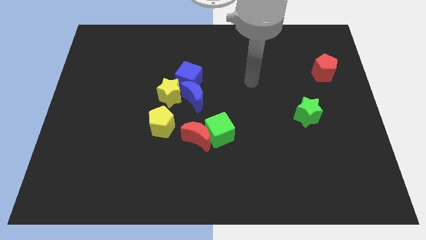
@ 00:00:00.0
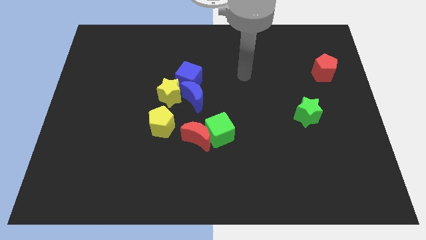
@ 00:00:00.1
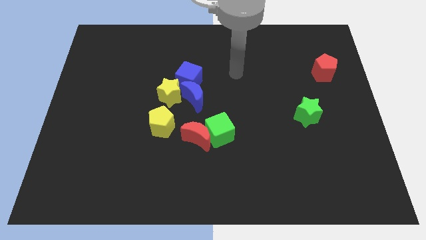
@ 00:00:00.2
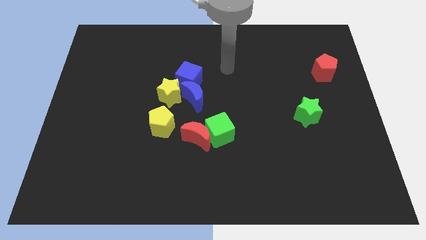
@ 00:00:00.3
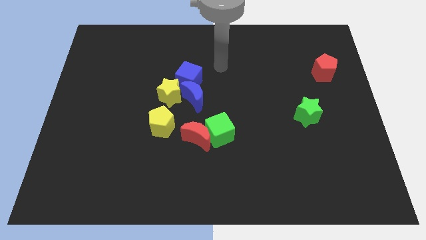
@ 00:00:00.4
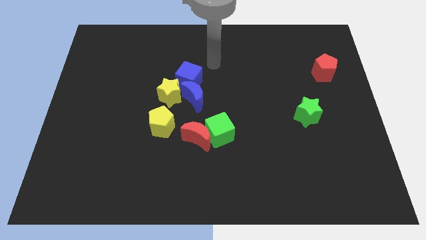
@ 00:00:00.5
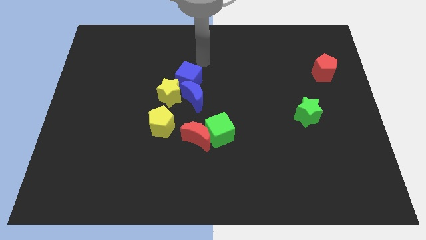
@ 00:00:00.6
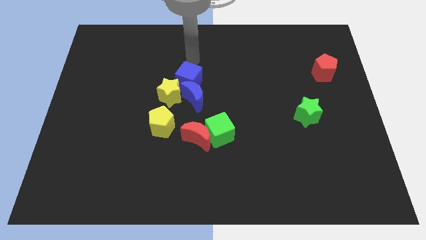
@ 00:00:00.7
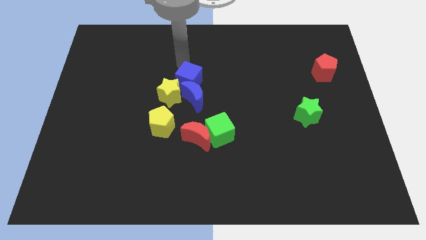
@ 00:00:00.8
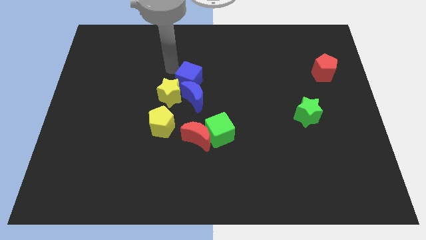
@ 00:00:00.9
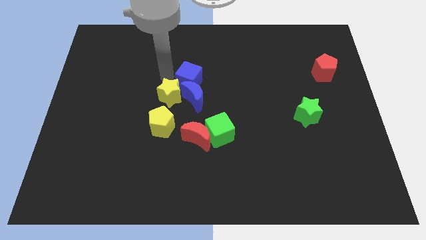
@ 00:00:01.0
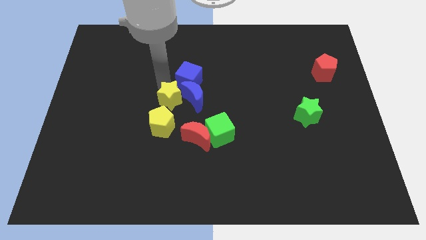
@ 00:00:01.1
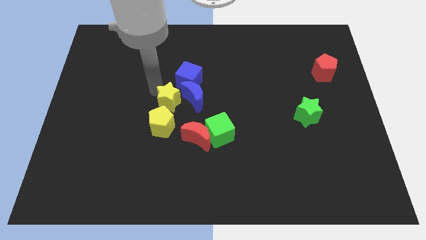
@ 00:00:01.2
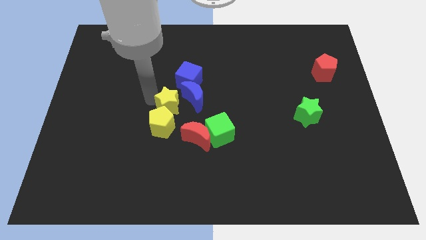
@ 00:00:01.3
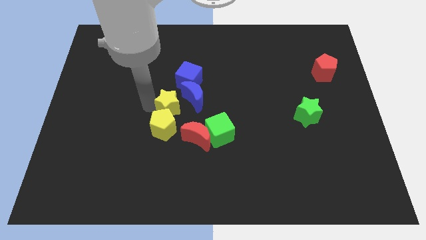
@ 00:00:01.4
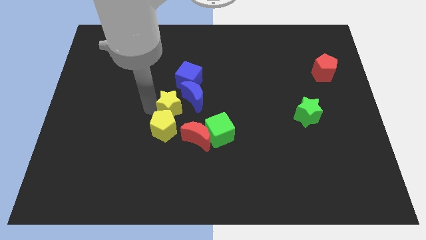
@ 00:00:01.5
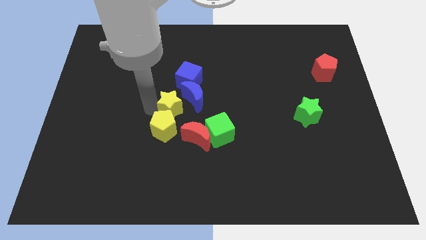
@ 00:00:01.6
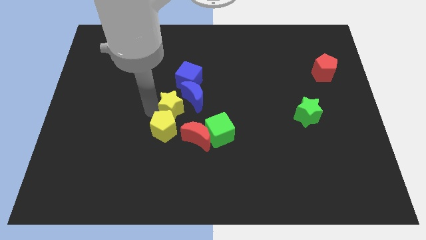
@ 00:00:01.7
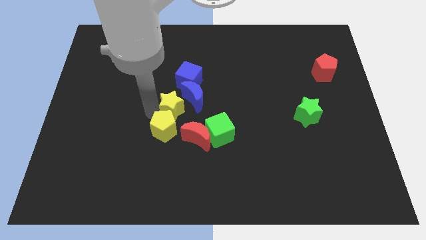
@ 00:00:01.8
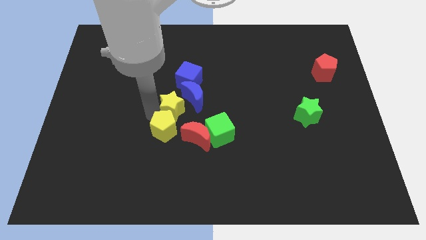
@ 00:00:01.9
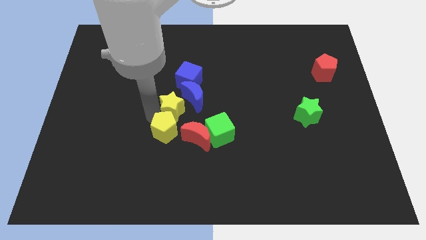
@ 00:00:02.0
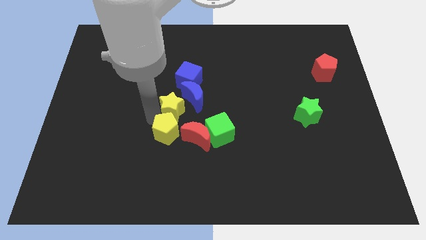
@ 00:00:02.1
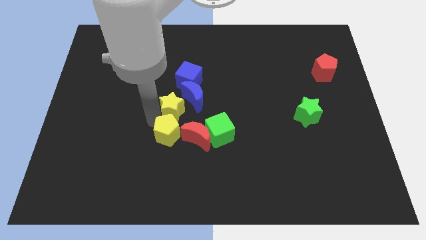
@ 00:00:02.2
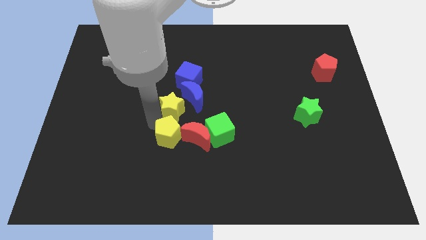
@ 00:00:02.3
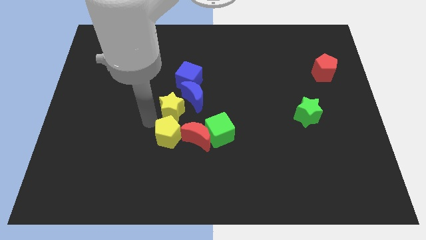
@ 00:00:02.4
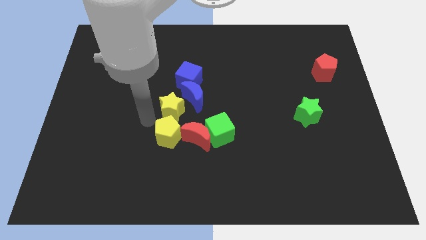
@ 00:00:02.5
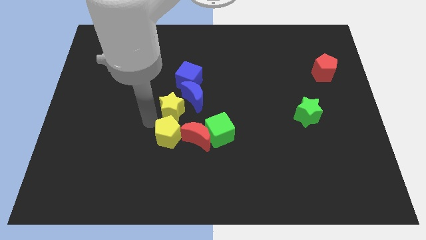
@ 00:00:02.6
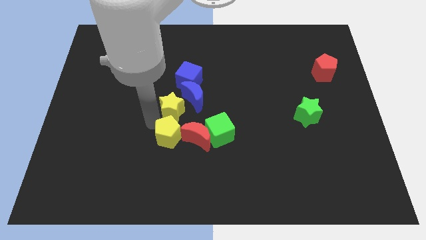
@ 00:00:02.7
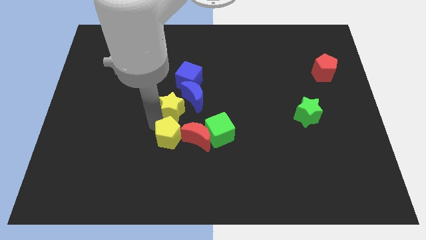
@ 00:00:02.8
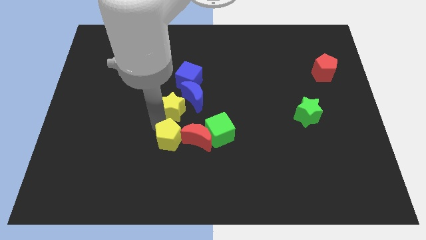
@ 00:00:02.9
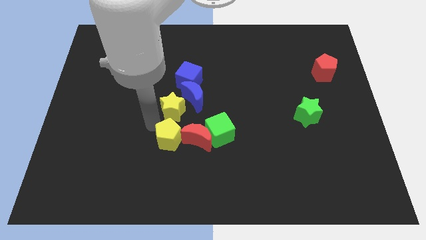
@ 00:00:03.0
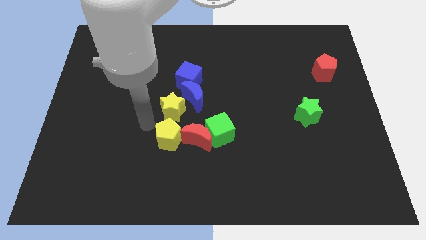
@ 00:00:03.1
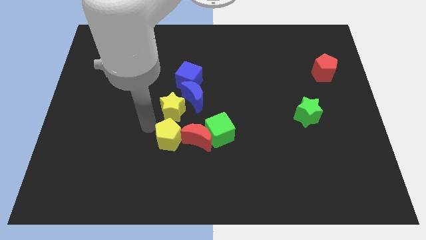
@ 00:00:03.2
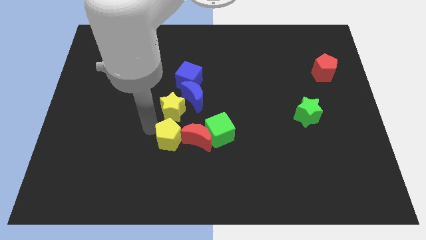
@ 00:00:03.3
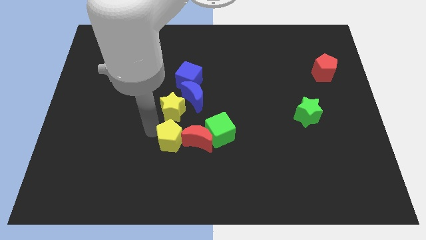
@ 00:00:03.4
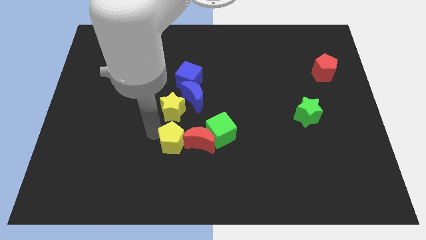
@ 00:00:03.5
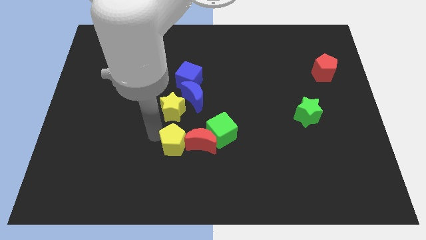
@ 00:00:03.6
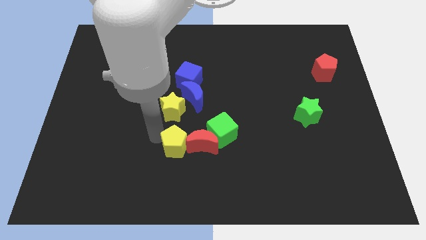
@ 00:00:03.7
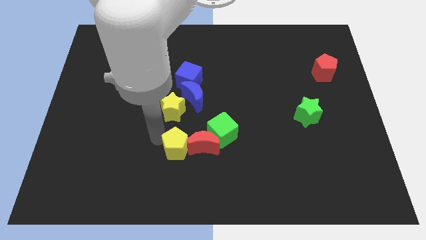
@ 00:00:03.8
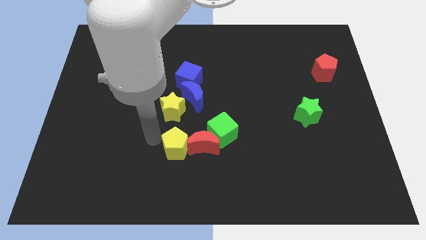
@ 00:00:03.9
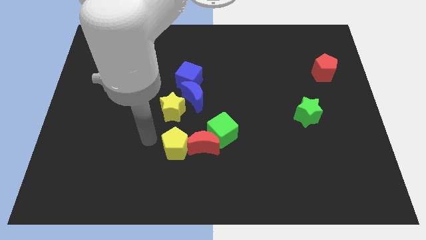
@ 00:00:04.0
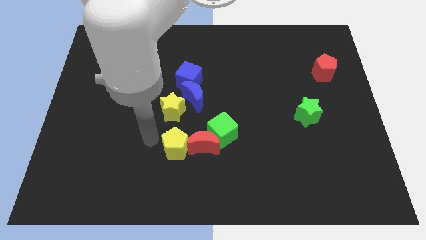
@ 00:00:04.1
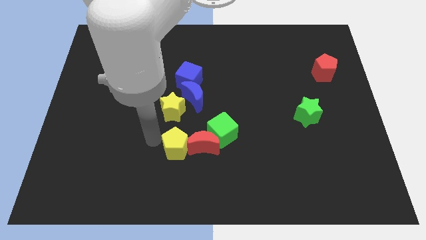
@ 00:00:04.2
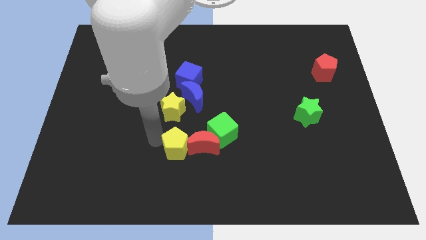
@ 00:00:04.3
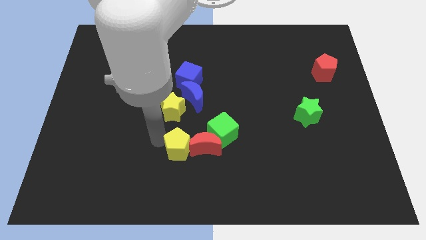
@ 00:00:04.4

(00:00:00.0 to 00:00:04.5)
slightly push the yellow pentagon downwards and to the right

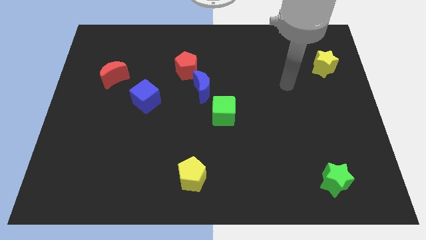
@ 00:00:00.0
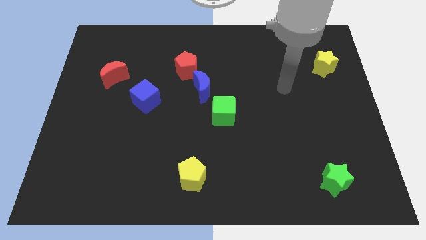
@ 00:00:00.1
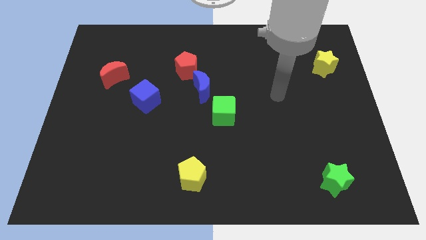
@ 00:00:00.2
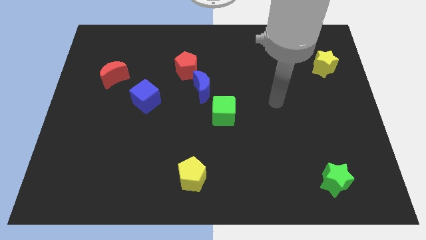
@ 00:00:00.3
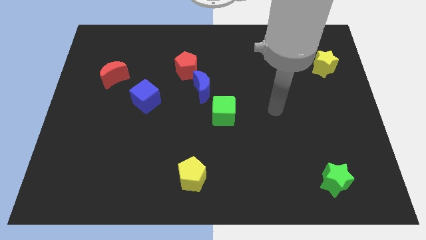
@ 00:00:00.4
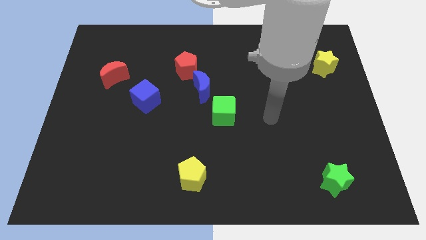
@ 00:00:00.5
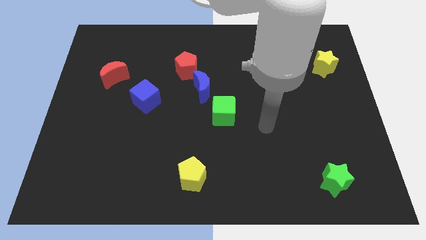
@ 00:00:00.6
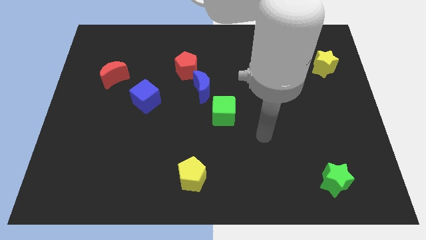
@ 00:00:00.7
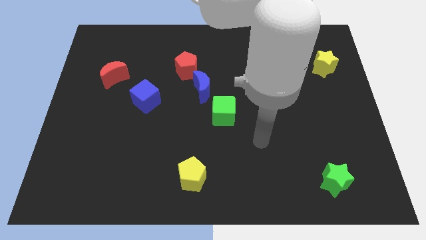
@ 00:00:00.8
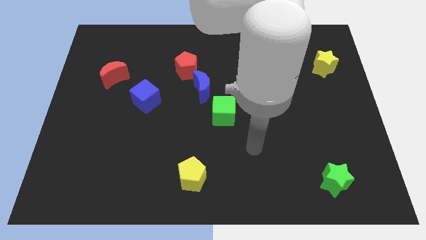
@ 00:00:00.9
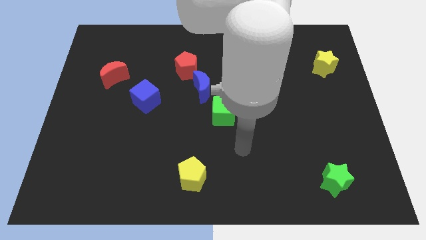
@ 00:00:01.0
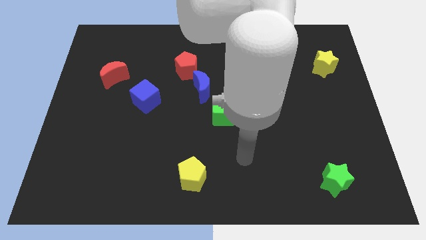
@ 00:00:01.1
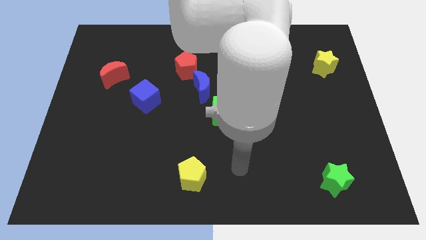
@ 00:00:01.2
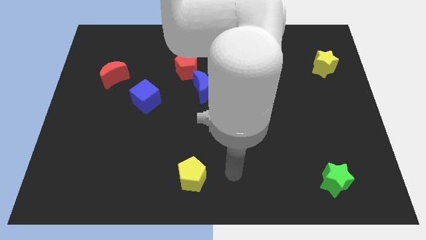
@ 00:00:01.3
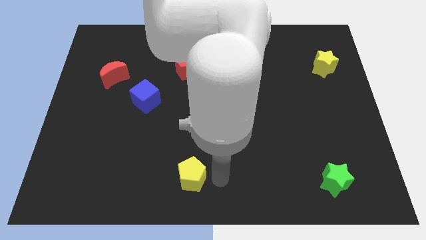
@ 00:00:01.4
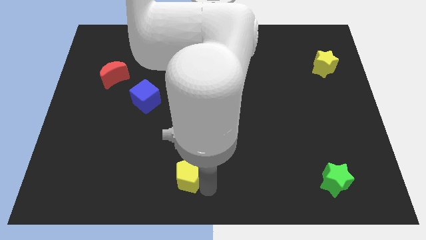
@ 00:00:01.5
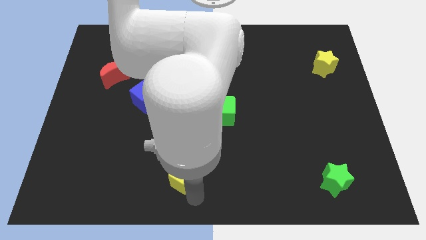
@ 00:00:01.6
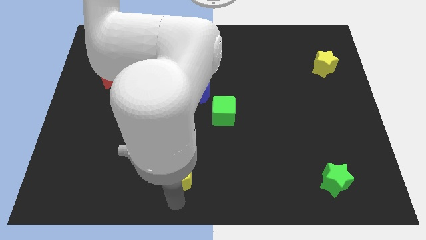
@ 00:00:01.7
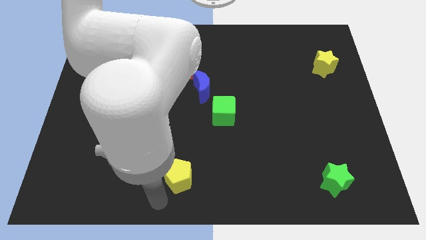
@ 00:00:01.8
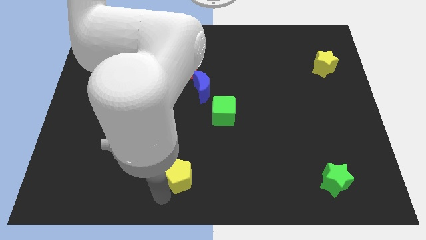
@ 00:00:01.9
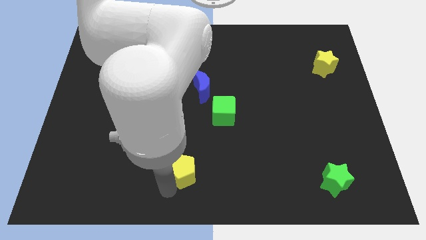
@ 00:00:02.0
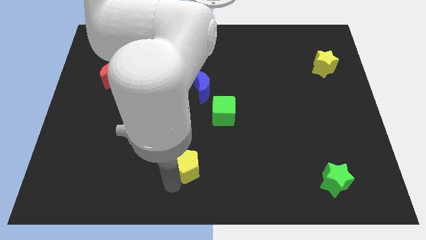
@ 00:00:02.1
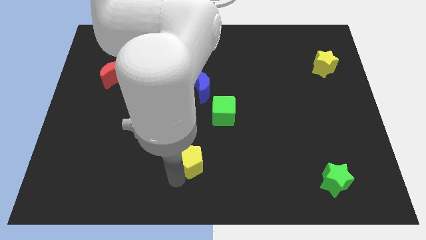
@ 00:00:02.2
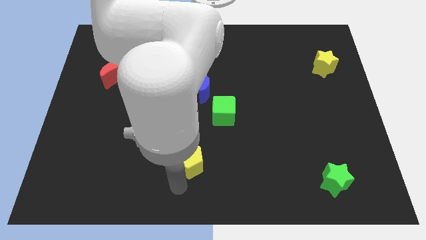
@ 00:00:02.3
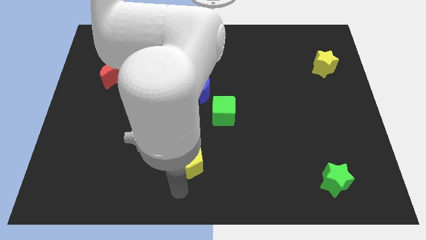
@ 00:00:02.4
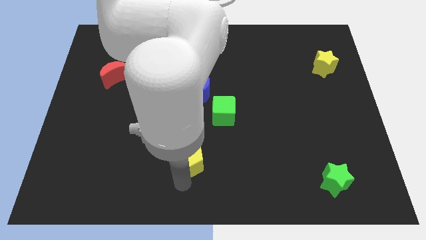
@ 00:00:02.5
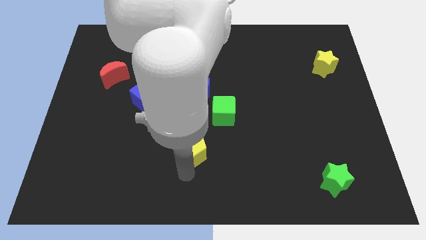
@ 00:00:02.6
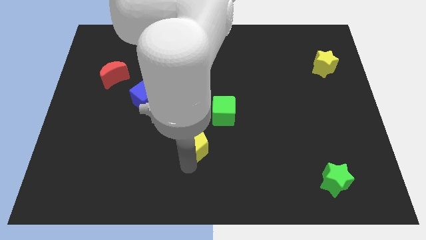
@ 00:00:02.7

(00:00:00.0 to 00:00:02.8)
move the yellow pentagon up somewhat

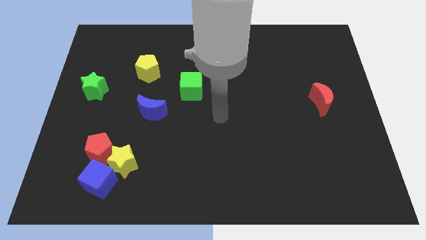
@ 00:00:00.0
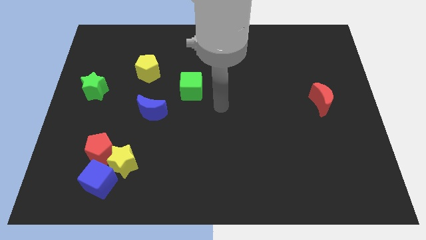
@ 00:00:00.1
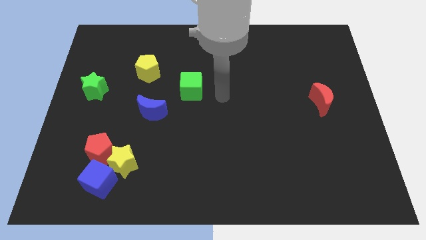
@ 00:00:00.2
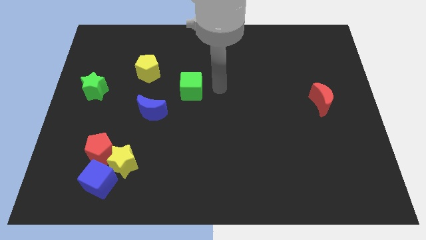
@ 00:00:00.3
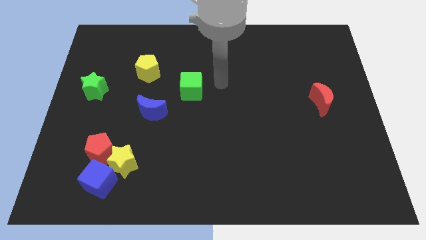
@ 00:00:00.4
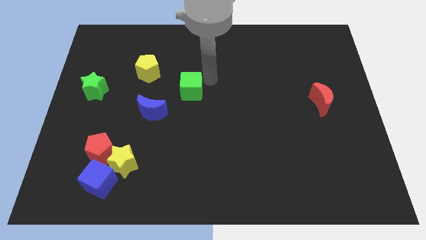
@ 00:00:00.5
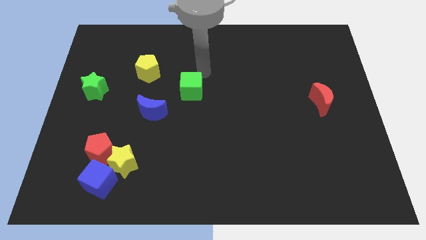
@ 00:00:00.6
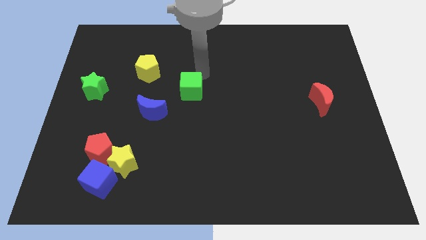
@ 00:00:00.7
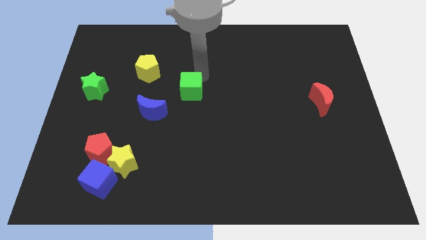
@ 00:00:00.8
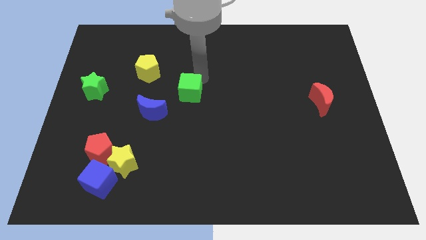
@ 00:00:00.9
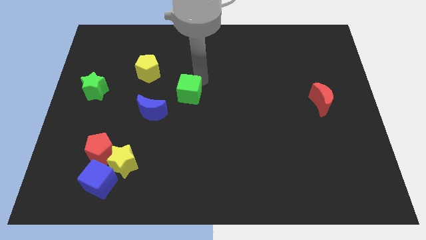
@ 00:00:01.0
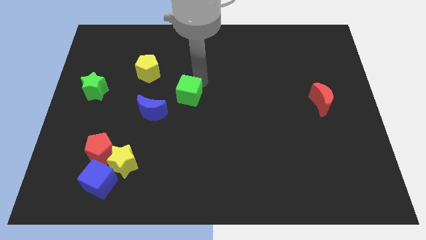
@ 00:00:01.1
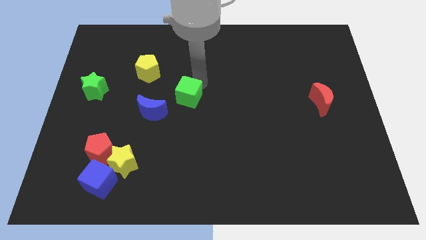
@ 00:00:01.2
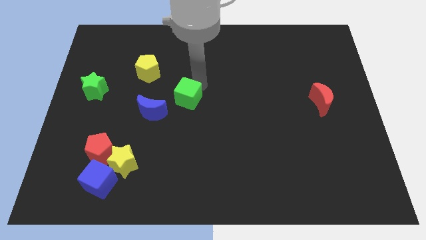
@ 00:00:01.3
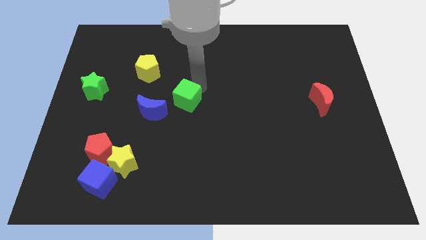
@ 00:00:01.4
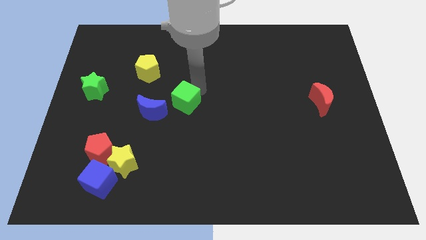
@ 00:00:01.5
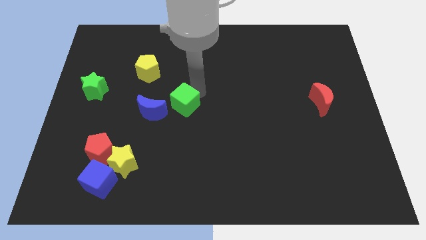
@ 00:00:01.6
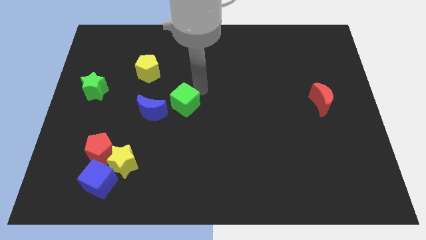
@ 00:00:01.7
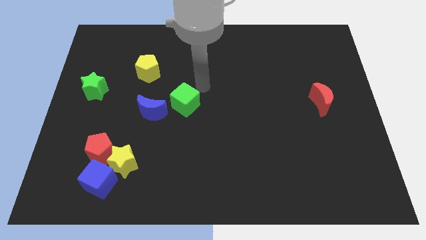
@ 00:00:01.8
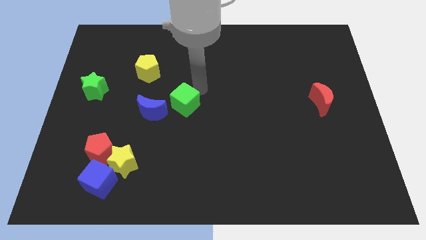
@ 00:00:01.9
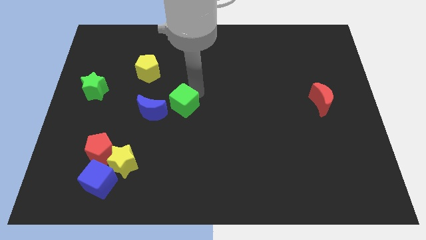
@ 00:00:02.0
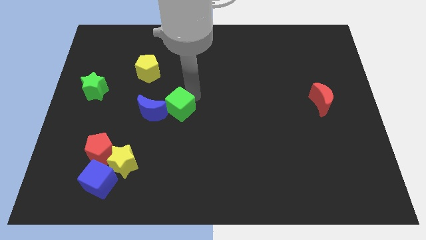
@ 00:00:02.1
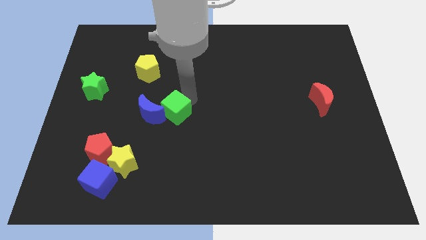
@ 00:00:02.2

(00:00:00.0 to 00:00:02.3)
move the green cube a little downwards and then to the left
